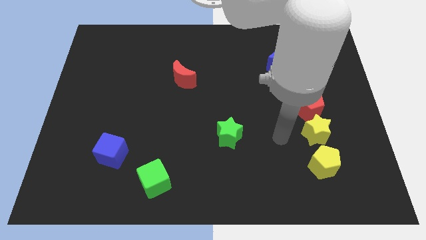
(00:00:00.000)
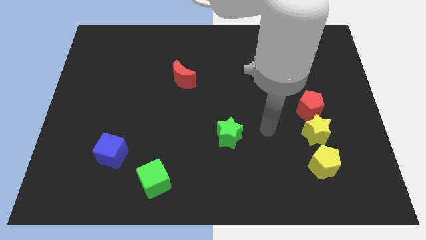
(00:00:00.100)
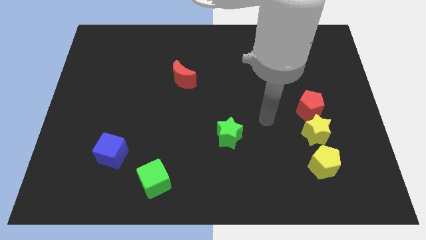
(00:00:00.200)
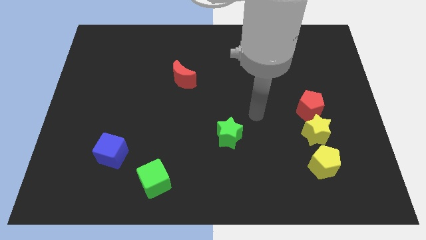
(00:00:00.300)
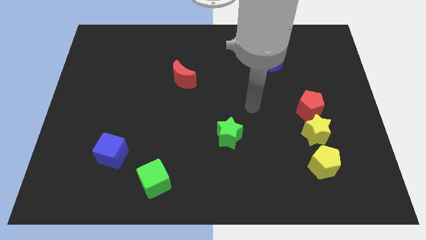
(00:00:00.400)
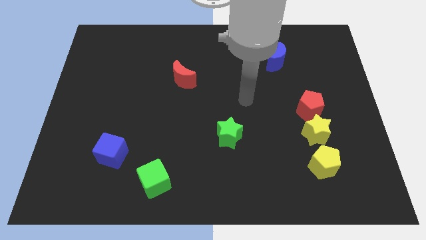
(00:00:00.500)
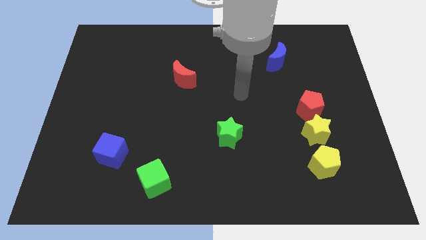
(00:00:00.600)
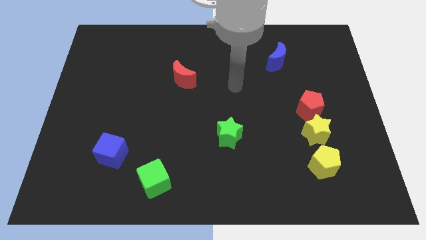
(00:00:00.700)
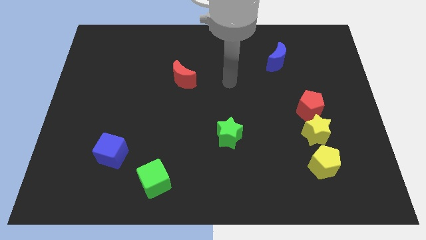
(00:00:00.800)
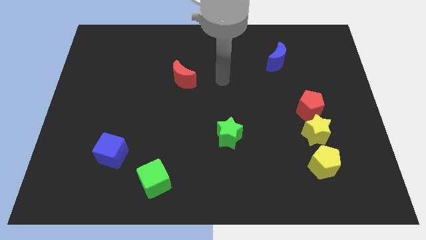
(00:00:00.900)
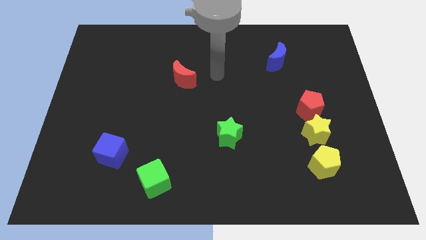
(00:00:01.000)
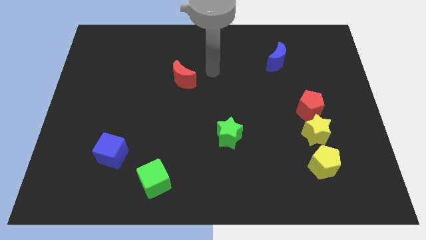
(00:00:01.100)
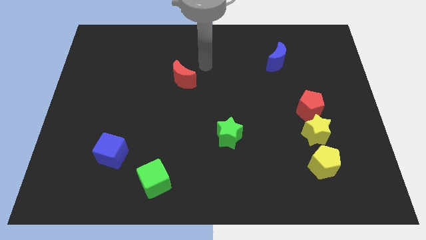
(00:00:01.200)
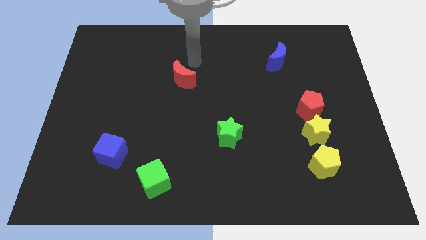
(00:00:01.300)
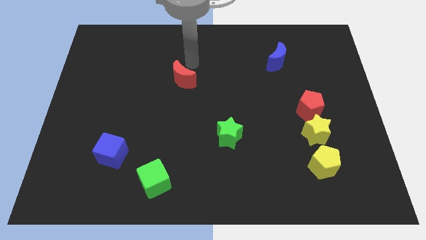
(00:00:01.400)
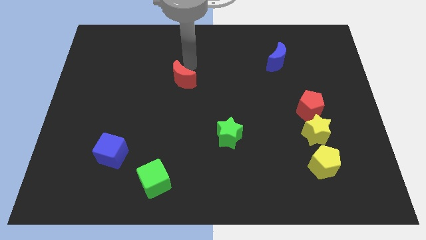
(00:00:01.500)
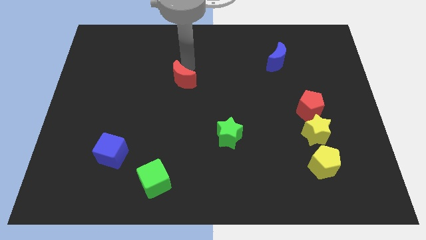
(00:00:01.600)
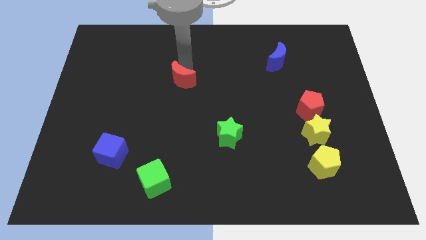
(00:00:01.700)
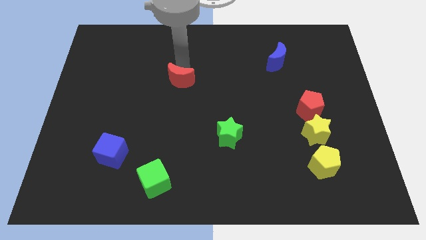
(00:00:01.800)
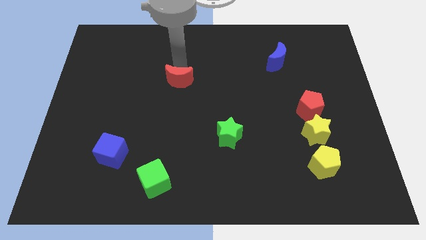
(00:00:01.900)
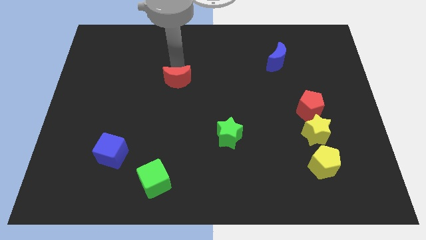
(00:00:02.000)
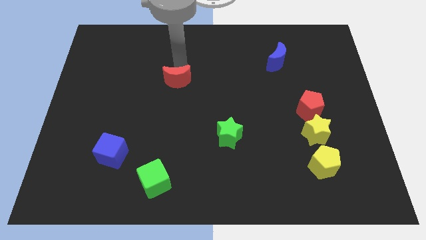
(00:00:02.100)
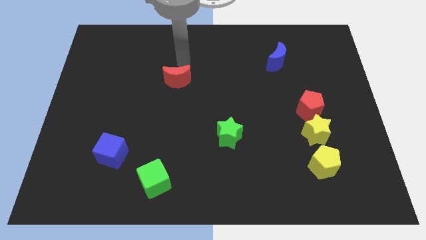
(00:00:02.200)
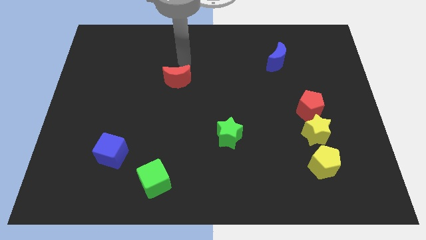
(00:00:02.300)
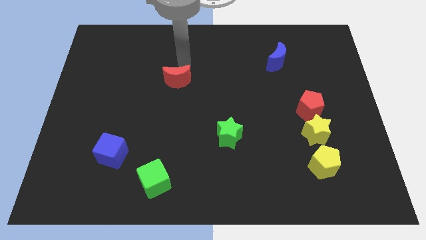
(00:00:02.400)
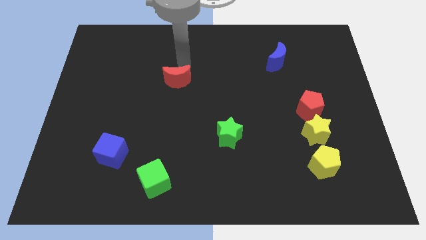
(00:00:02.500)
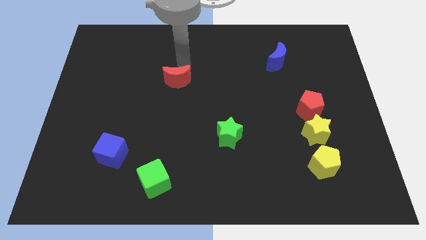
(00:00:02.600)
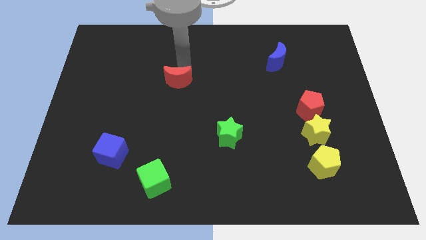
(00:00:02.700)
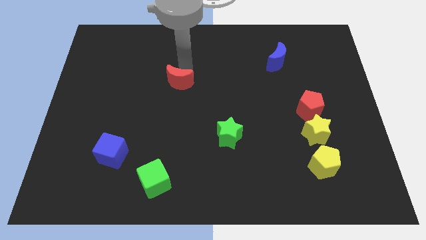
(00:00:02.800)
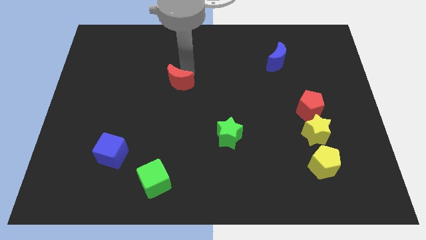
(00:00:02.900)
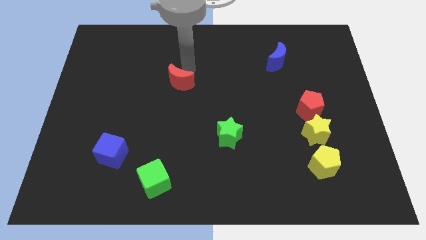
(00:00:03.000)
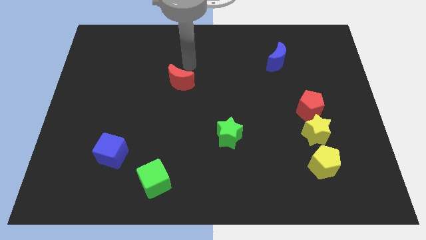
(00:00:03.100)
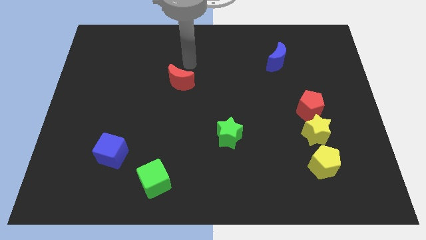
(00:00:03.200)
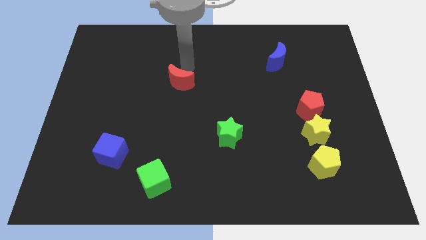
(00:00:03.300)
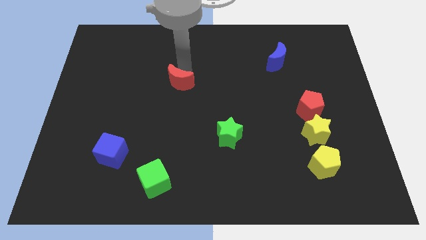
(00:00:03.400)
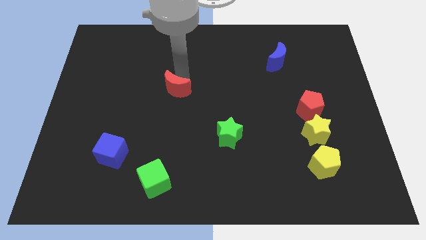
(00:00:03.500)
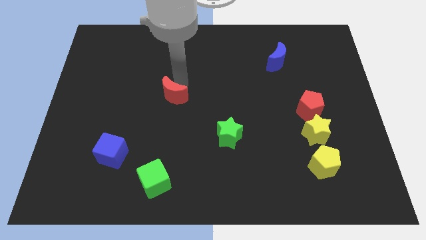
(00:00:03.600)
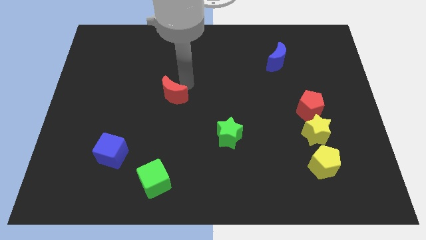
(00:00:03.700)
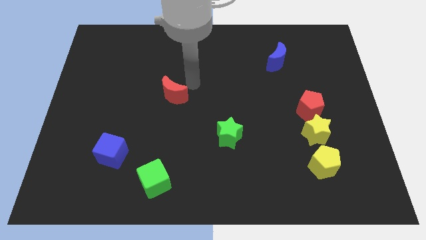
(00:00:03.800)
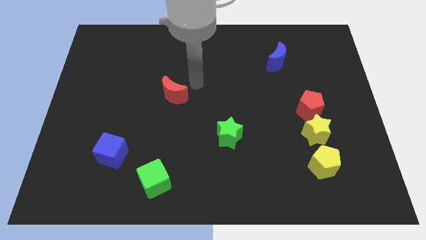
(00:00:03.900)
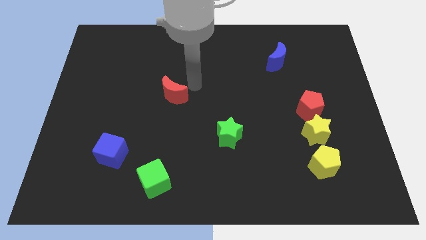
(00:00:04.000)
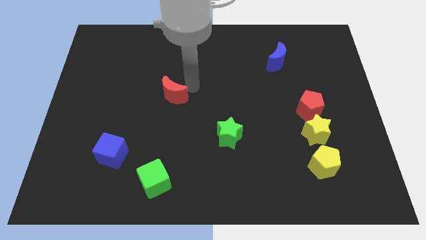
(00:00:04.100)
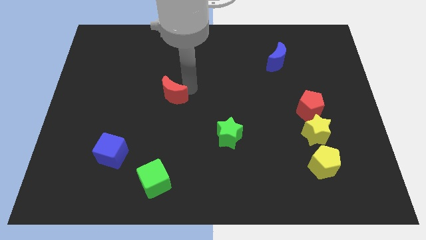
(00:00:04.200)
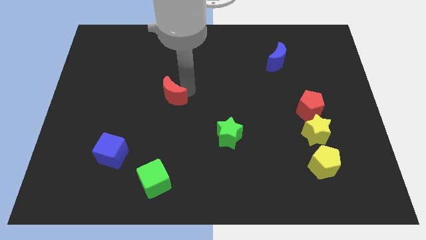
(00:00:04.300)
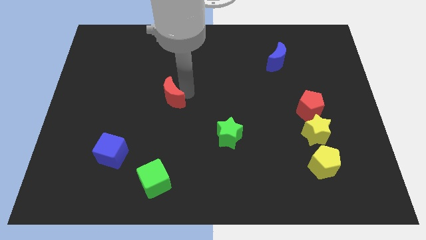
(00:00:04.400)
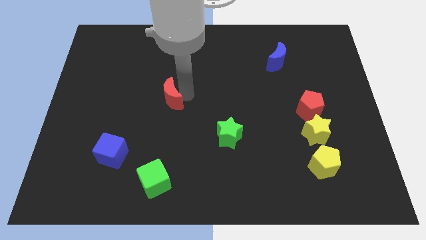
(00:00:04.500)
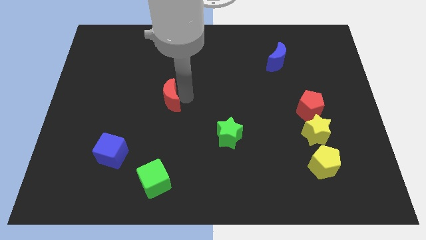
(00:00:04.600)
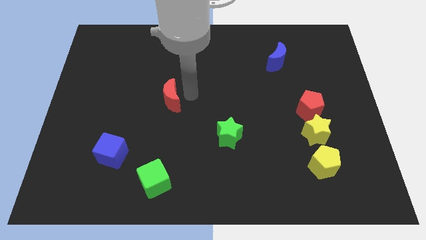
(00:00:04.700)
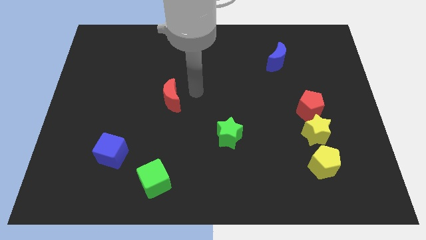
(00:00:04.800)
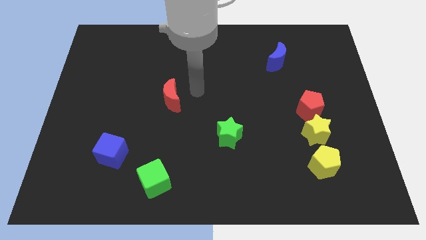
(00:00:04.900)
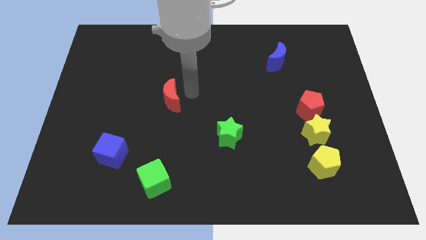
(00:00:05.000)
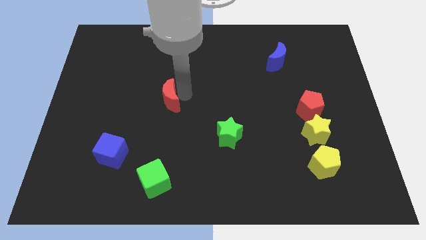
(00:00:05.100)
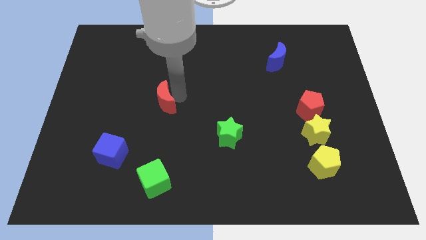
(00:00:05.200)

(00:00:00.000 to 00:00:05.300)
slightly move the red moon diagonally down and to the left

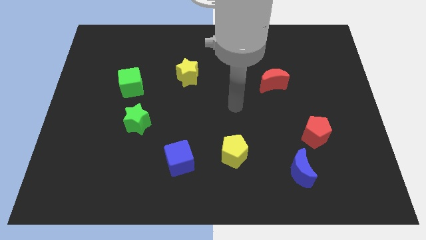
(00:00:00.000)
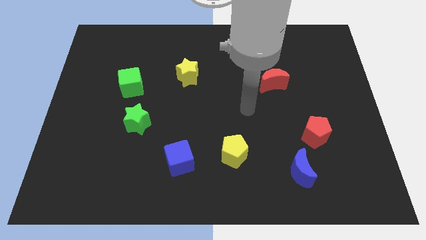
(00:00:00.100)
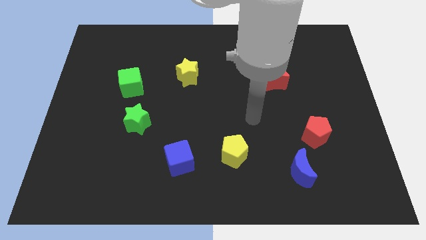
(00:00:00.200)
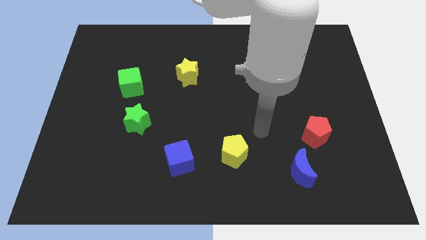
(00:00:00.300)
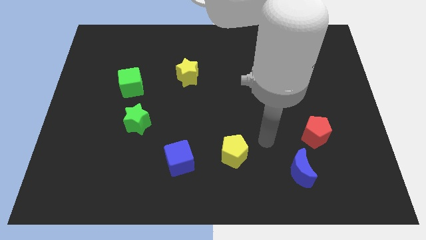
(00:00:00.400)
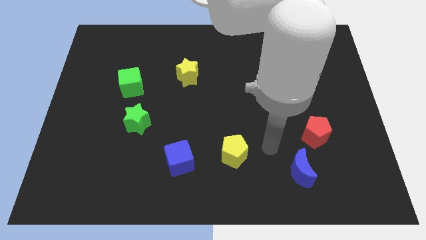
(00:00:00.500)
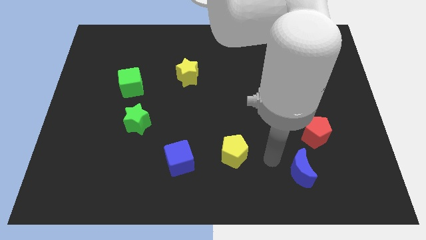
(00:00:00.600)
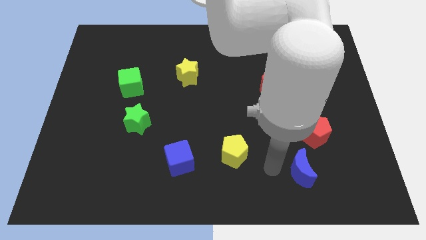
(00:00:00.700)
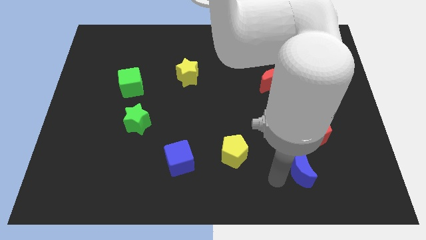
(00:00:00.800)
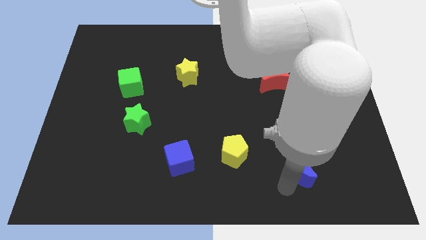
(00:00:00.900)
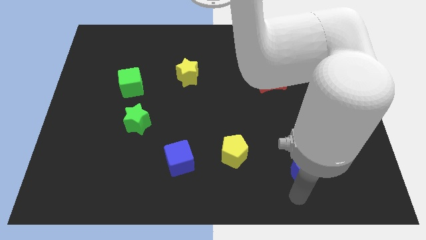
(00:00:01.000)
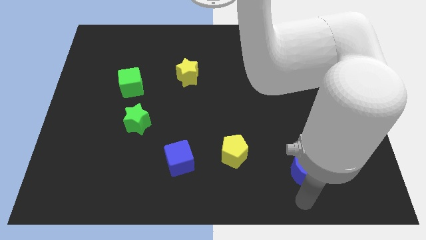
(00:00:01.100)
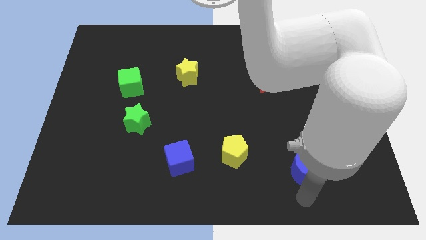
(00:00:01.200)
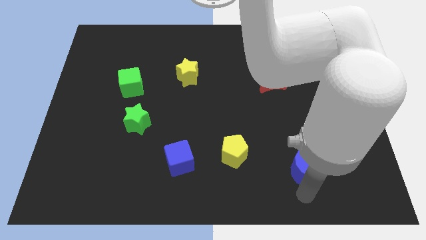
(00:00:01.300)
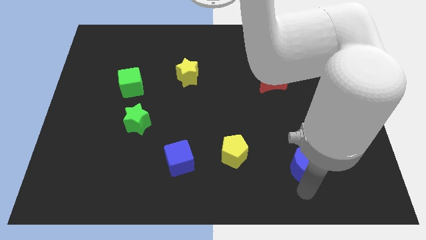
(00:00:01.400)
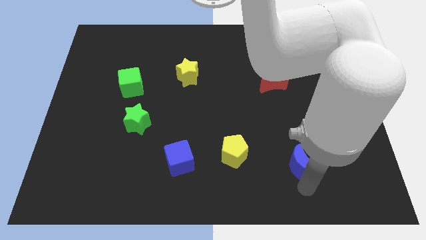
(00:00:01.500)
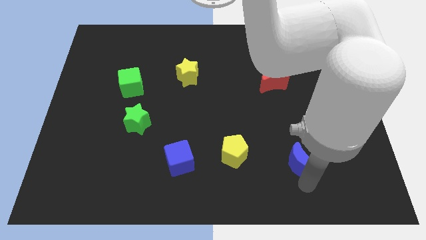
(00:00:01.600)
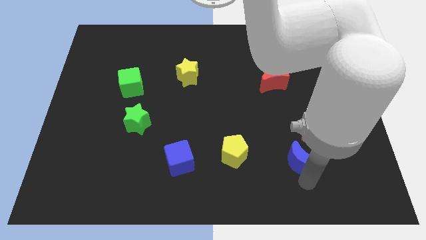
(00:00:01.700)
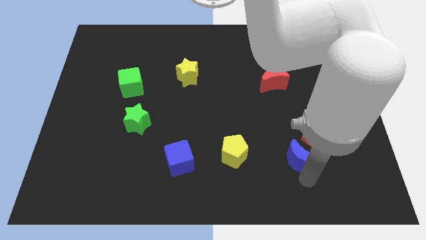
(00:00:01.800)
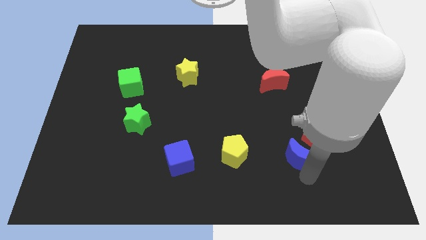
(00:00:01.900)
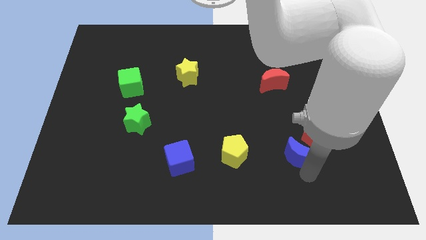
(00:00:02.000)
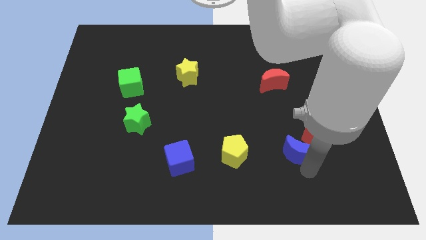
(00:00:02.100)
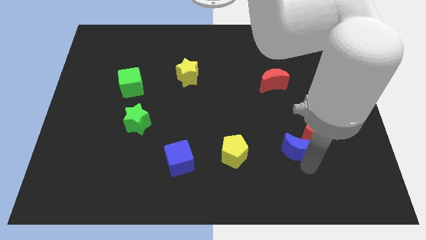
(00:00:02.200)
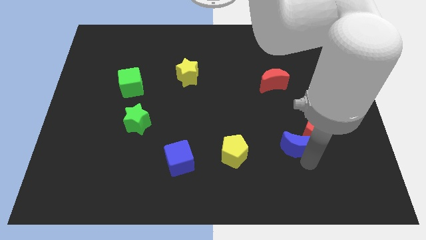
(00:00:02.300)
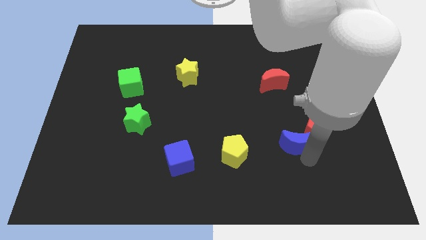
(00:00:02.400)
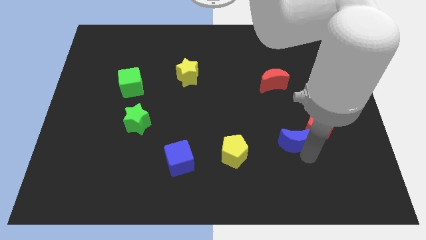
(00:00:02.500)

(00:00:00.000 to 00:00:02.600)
slide the blue moon up a little bit

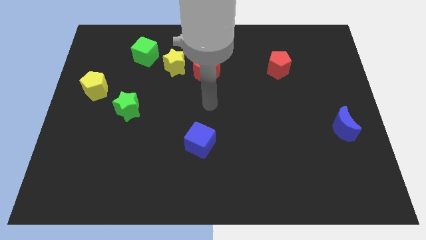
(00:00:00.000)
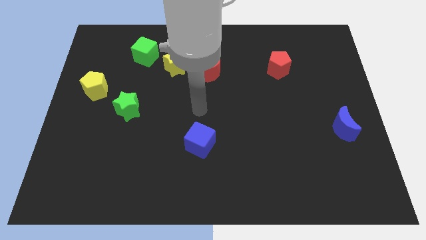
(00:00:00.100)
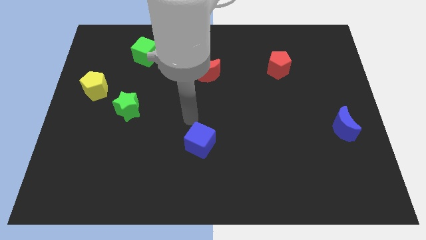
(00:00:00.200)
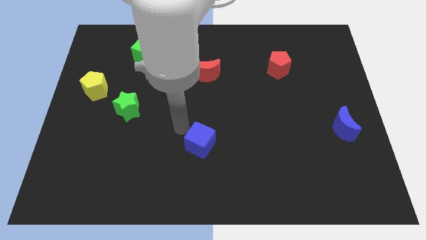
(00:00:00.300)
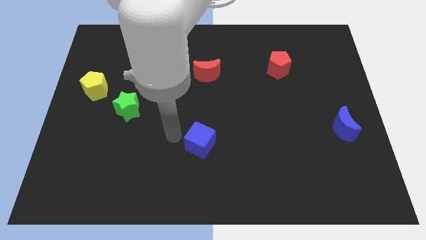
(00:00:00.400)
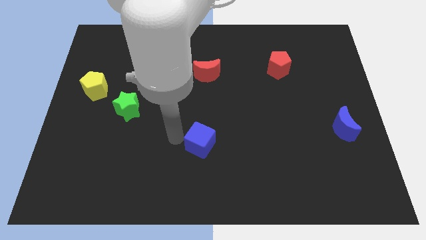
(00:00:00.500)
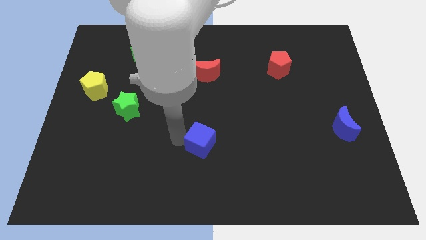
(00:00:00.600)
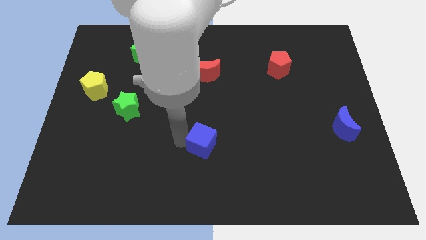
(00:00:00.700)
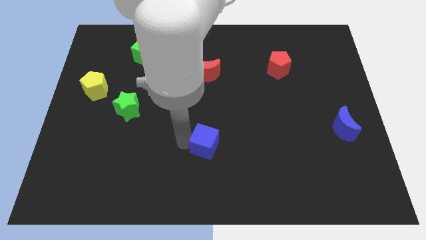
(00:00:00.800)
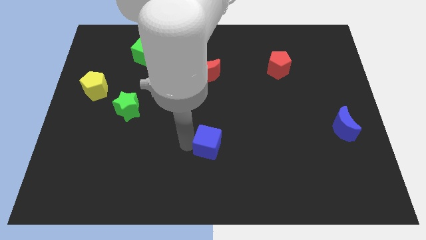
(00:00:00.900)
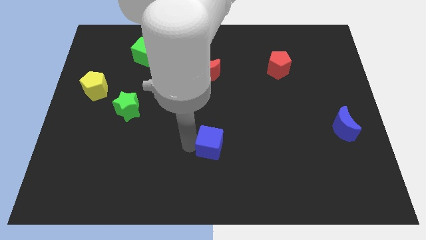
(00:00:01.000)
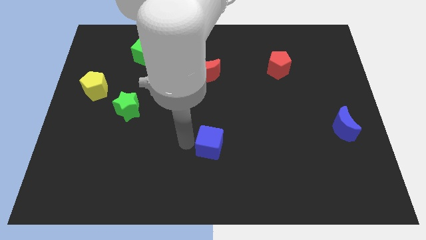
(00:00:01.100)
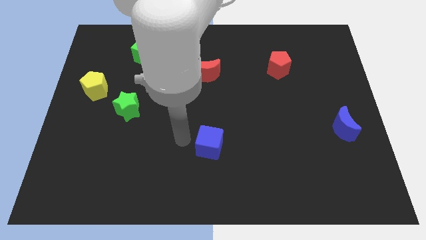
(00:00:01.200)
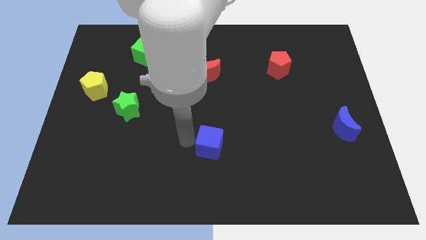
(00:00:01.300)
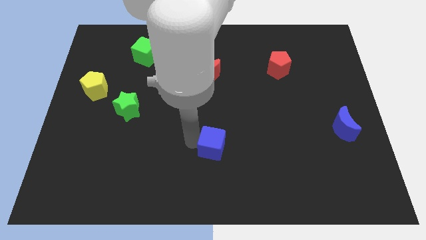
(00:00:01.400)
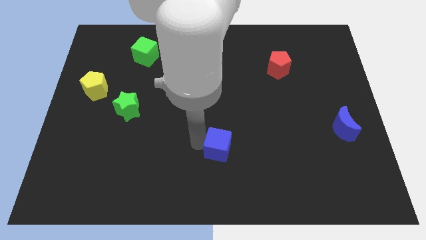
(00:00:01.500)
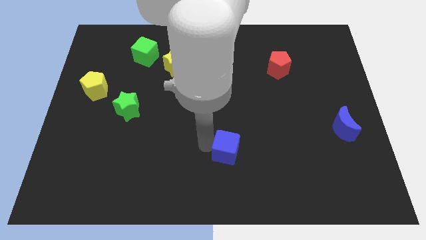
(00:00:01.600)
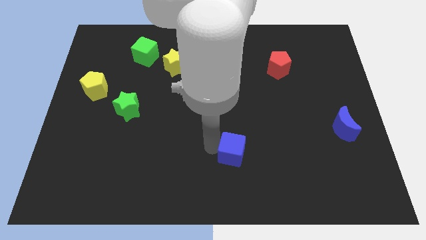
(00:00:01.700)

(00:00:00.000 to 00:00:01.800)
move the blue cube a bit to the right
